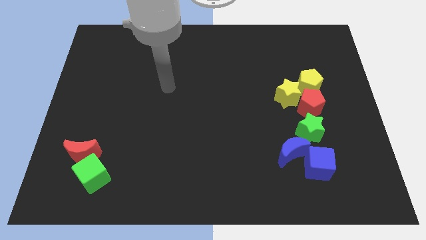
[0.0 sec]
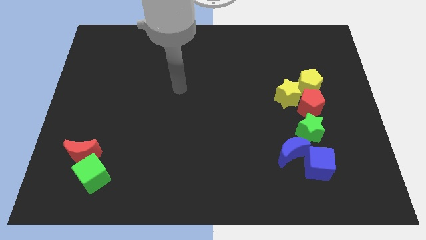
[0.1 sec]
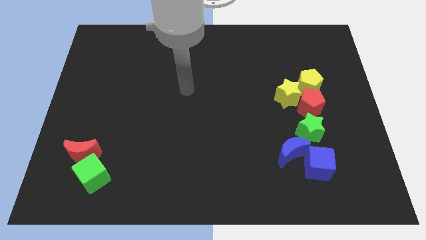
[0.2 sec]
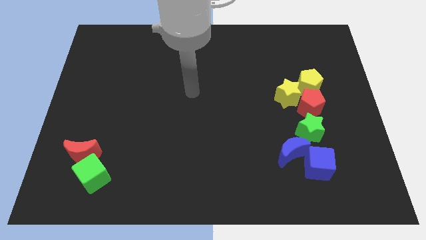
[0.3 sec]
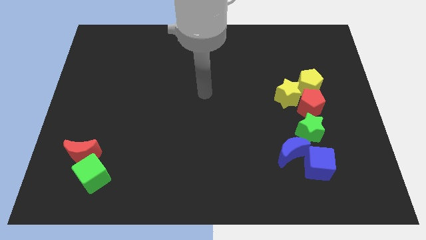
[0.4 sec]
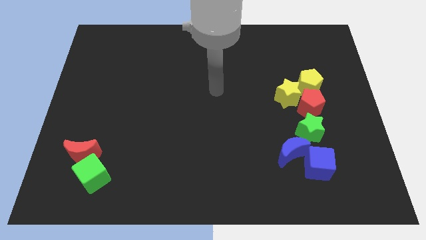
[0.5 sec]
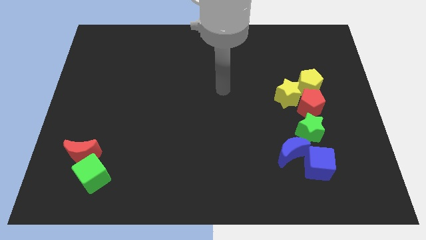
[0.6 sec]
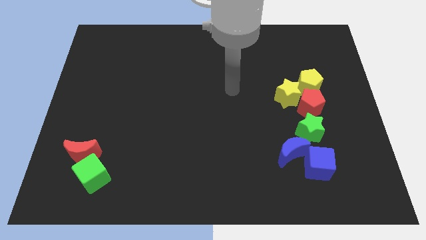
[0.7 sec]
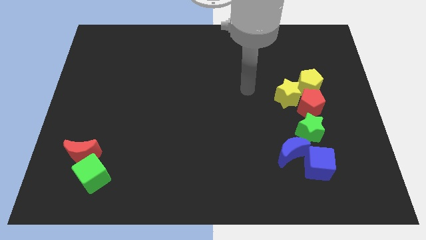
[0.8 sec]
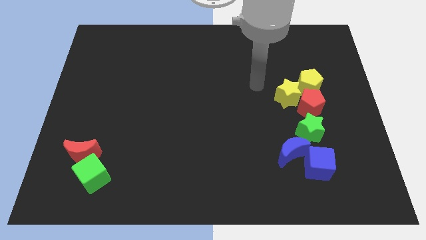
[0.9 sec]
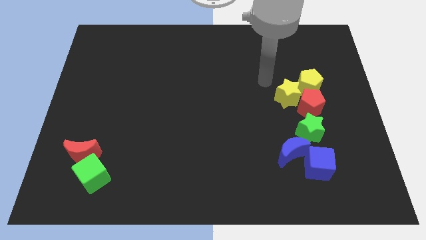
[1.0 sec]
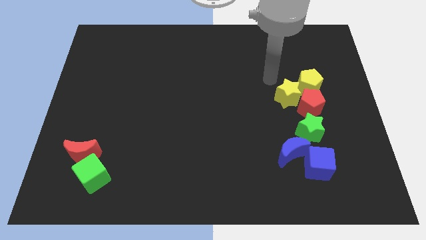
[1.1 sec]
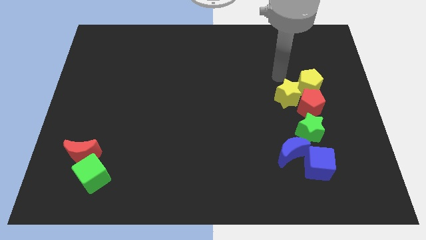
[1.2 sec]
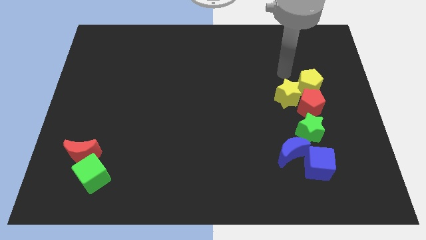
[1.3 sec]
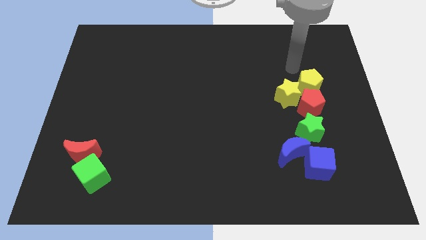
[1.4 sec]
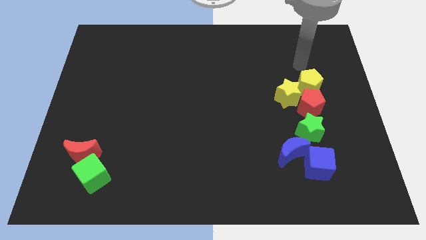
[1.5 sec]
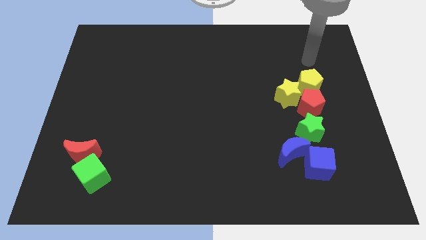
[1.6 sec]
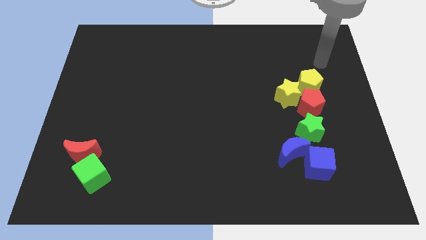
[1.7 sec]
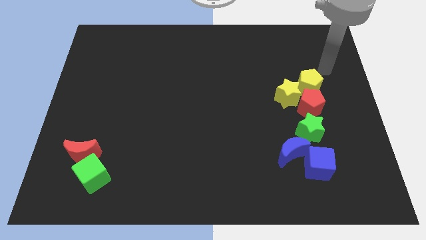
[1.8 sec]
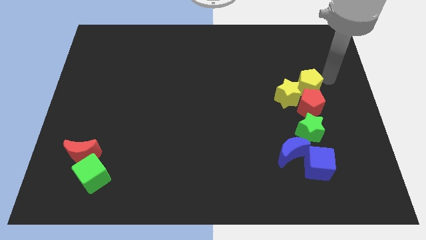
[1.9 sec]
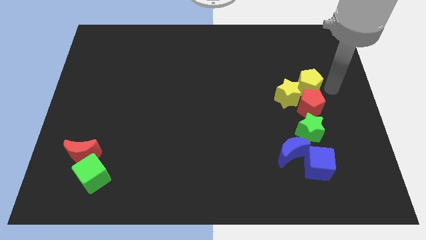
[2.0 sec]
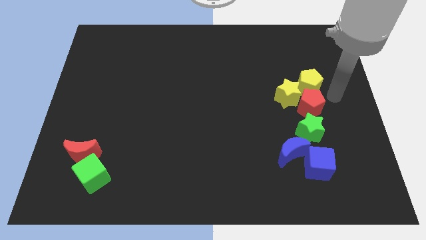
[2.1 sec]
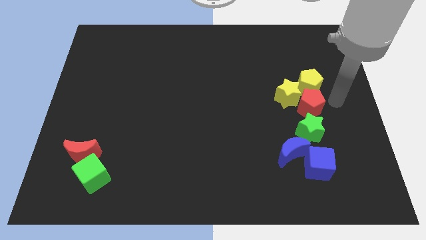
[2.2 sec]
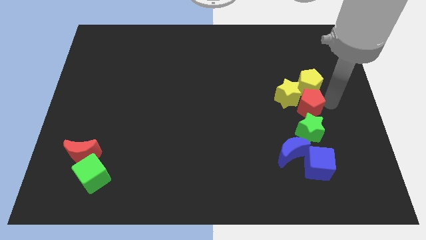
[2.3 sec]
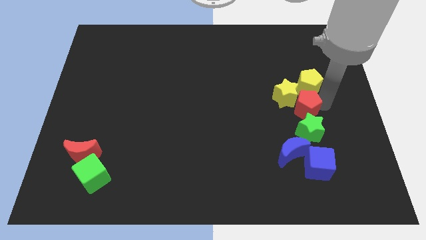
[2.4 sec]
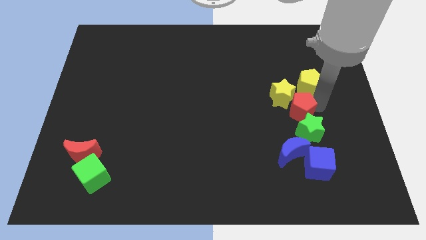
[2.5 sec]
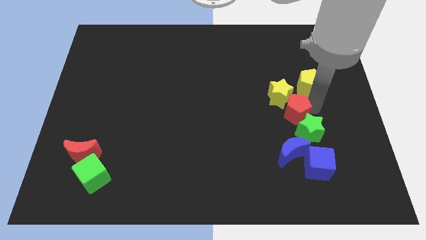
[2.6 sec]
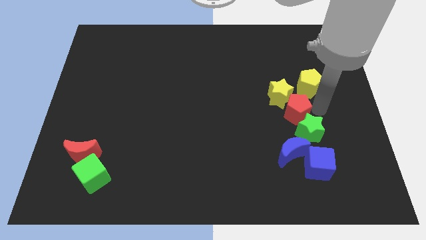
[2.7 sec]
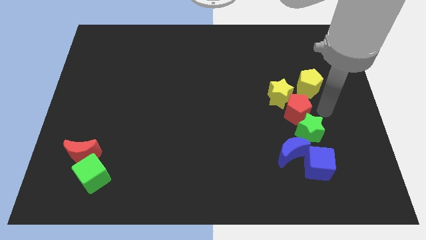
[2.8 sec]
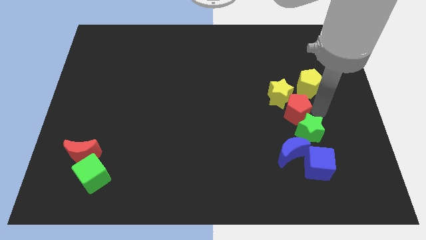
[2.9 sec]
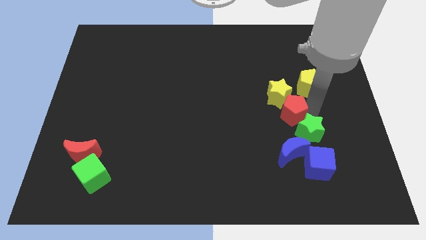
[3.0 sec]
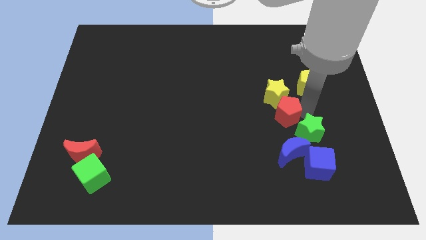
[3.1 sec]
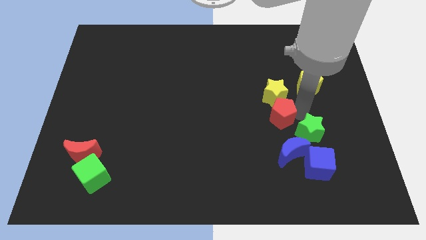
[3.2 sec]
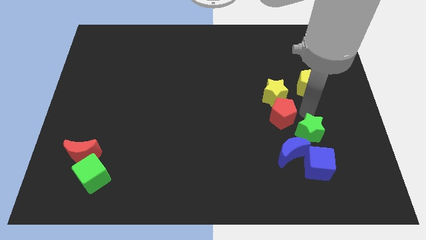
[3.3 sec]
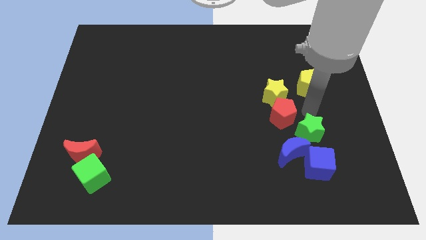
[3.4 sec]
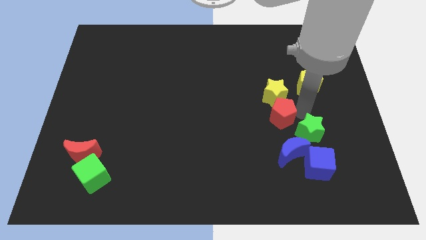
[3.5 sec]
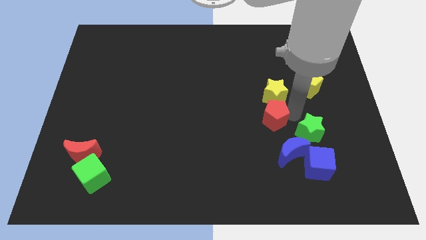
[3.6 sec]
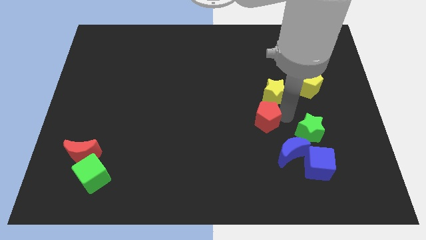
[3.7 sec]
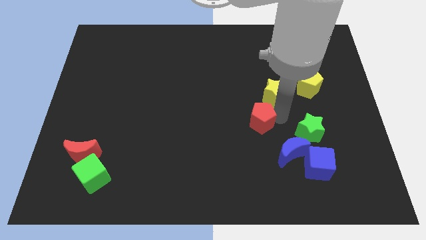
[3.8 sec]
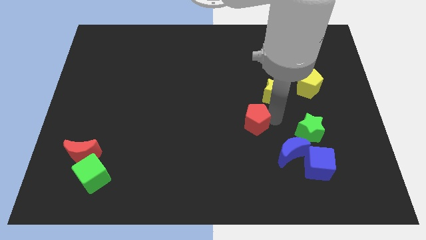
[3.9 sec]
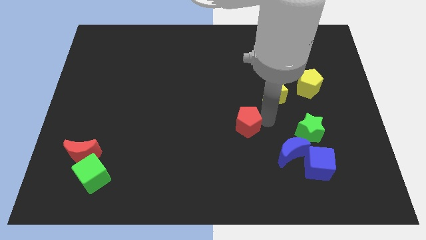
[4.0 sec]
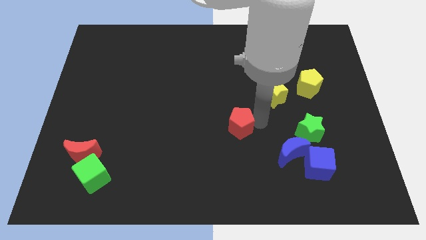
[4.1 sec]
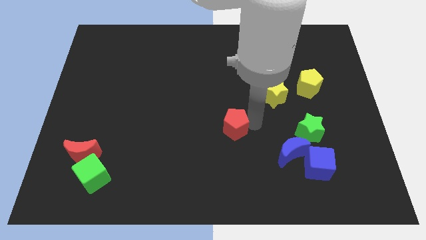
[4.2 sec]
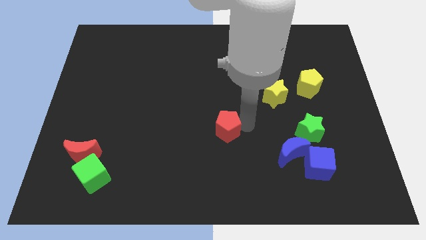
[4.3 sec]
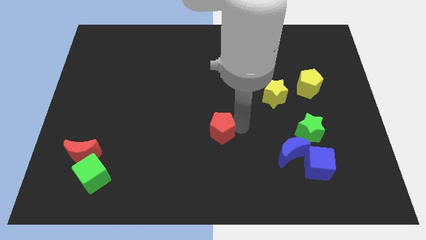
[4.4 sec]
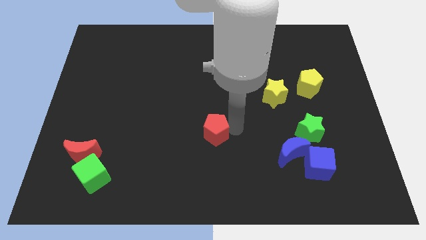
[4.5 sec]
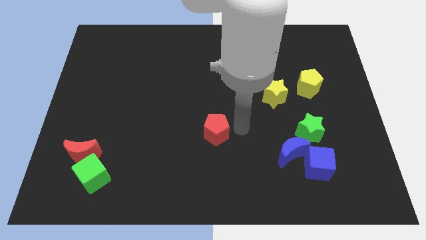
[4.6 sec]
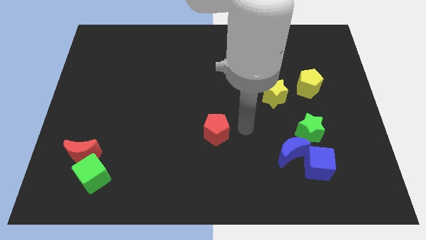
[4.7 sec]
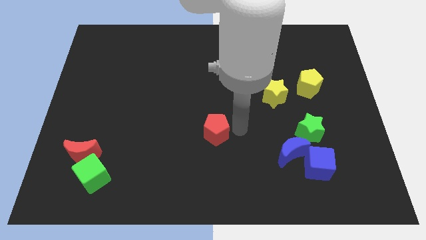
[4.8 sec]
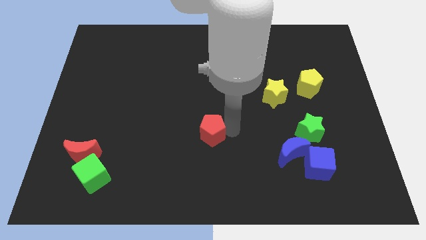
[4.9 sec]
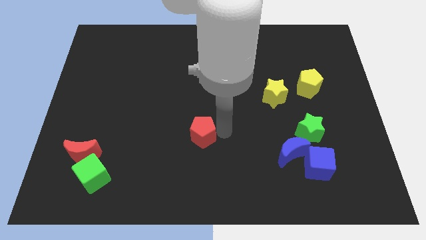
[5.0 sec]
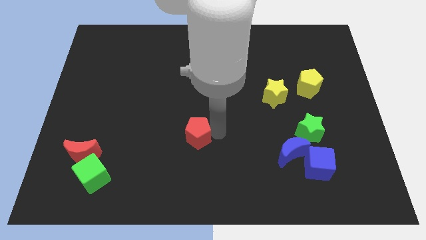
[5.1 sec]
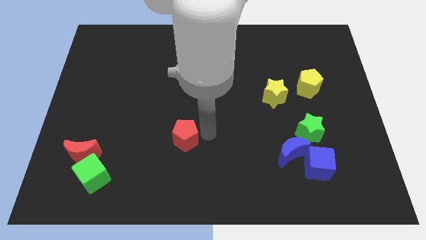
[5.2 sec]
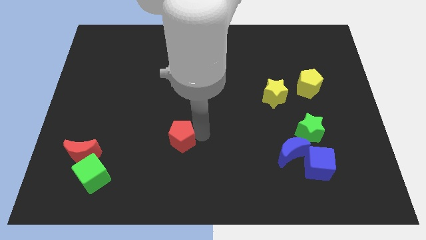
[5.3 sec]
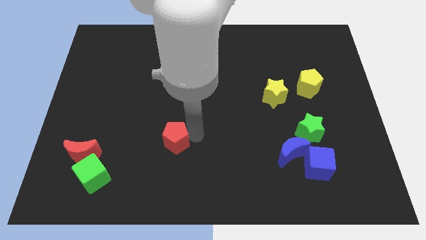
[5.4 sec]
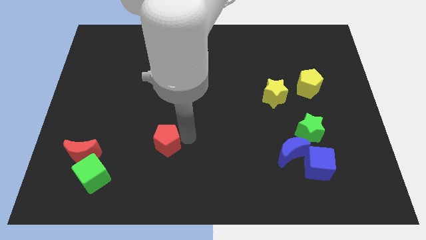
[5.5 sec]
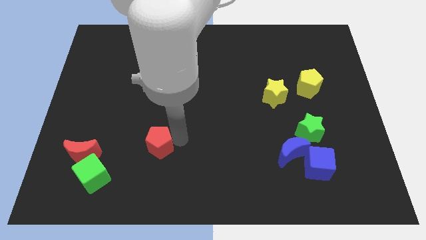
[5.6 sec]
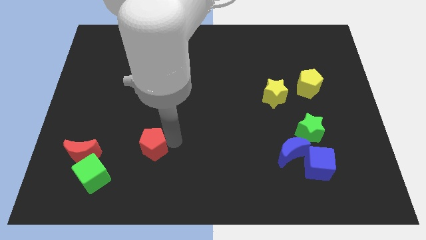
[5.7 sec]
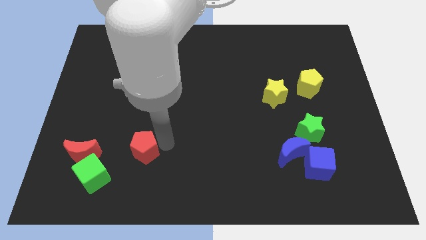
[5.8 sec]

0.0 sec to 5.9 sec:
push the red pentagon to the top right side of the green cube
